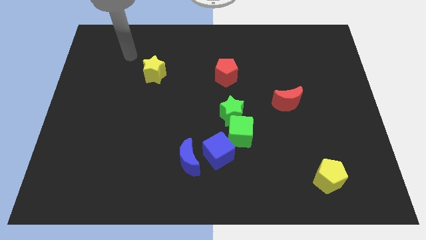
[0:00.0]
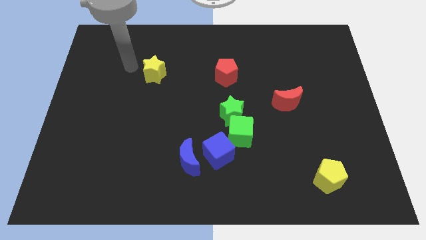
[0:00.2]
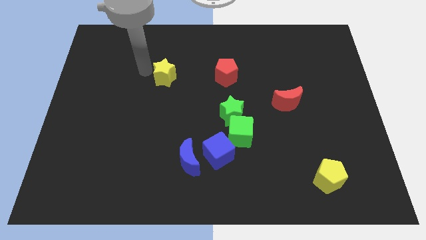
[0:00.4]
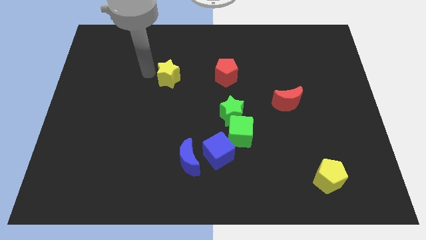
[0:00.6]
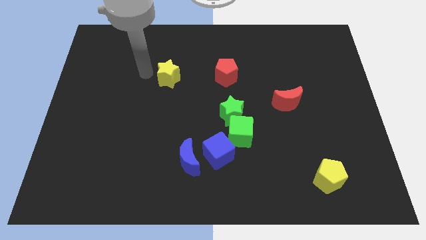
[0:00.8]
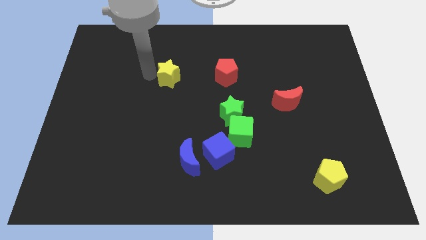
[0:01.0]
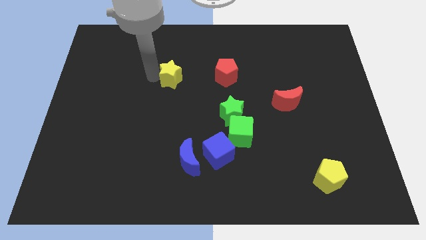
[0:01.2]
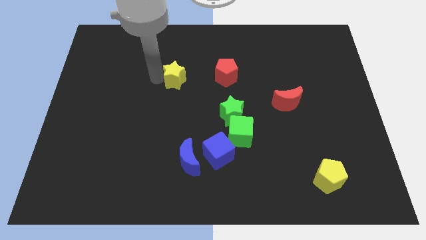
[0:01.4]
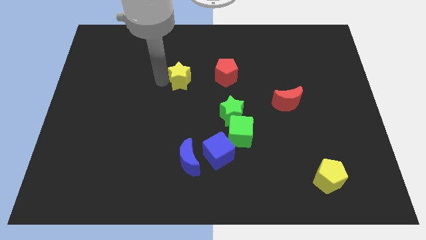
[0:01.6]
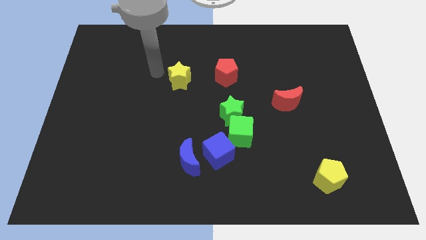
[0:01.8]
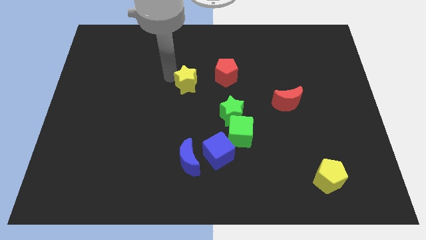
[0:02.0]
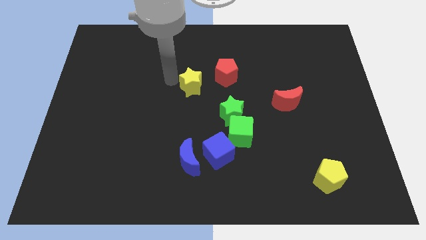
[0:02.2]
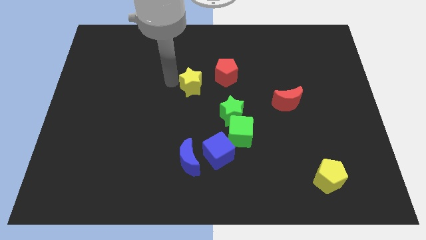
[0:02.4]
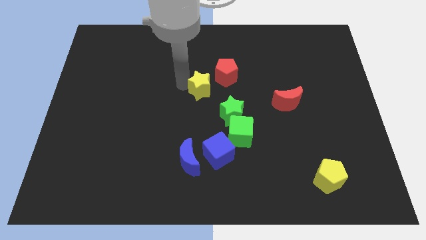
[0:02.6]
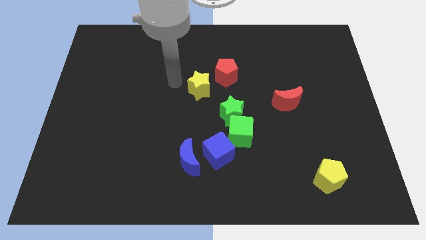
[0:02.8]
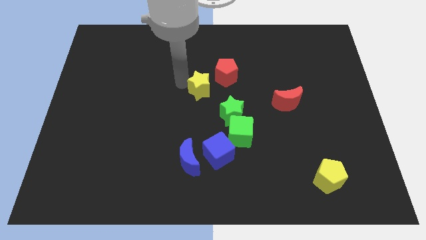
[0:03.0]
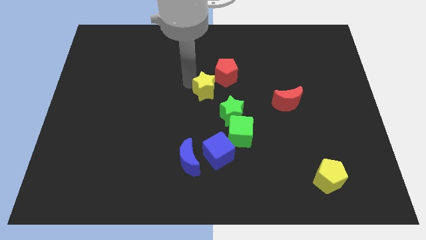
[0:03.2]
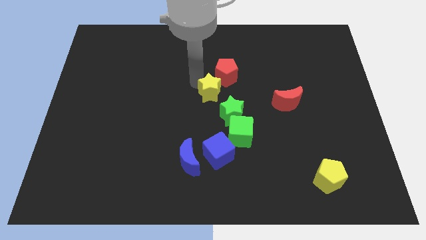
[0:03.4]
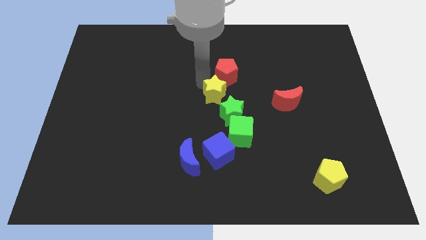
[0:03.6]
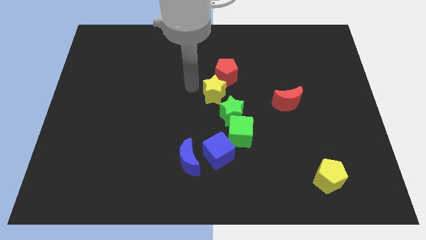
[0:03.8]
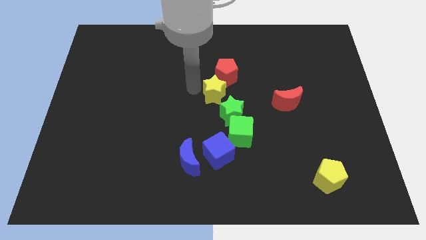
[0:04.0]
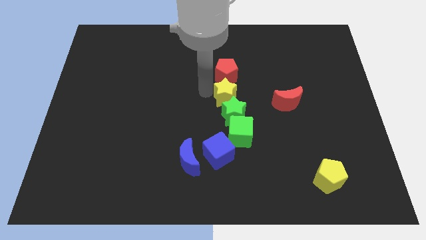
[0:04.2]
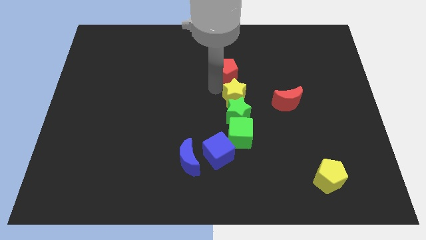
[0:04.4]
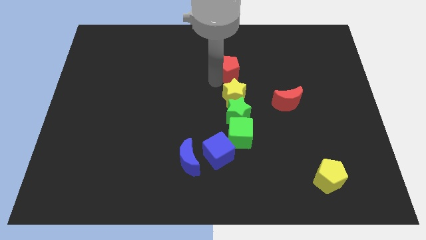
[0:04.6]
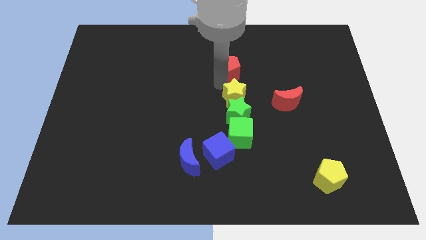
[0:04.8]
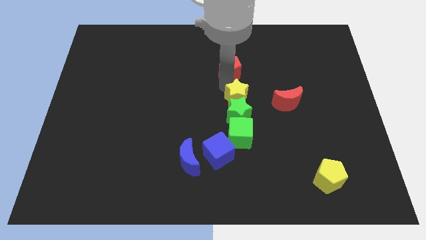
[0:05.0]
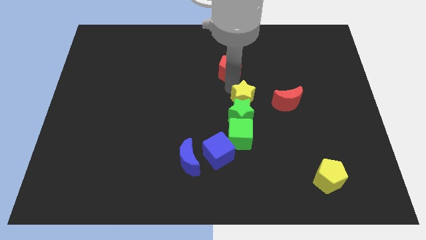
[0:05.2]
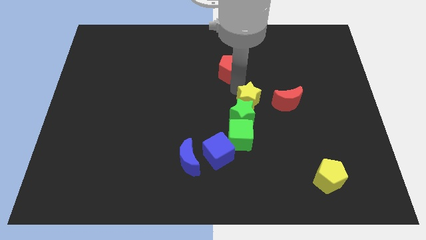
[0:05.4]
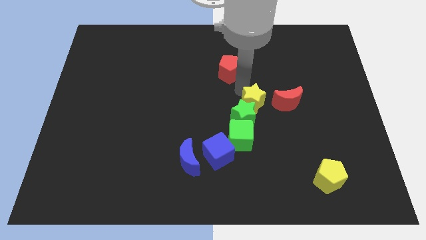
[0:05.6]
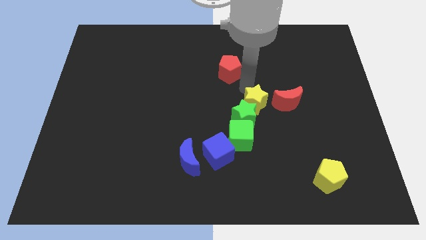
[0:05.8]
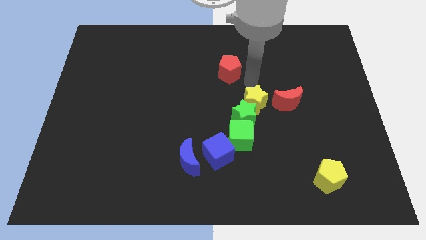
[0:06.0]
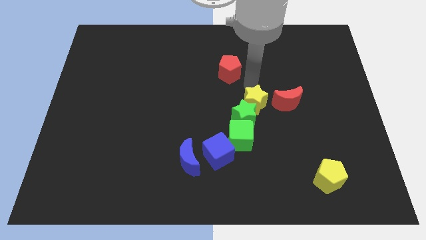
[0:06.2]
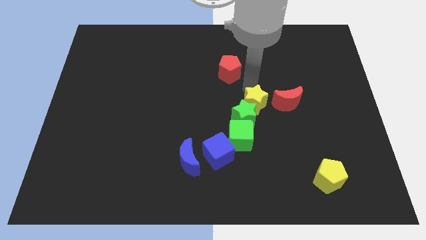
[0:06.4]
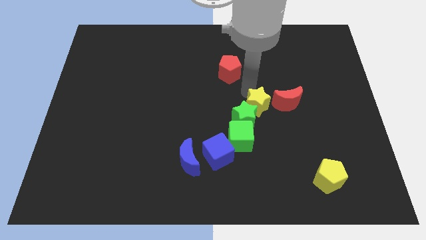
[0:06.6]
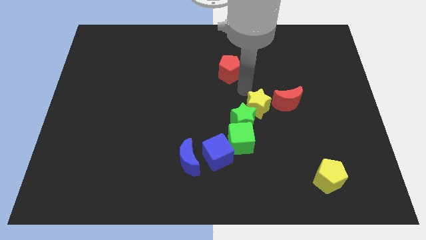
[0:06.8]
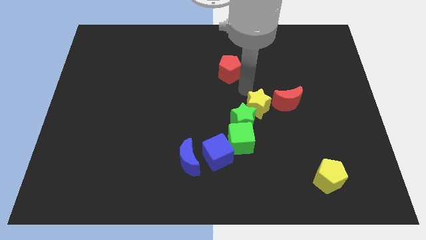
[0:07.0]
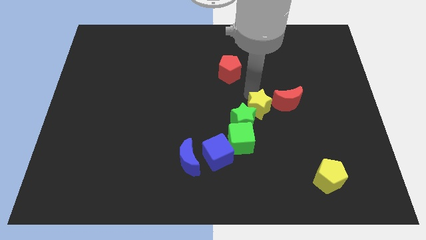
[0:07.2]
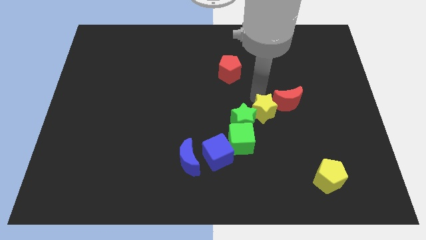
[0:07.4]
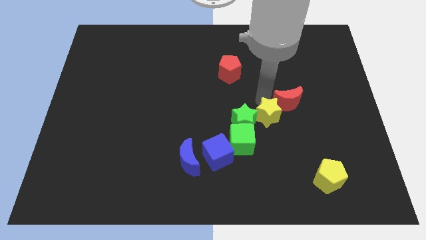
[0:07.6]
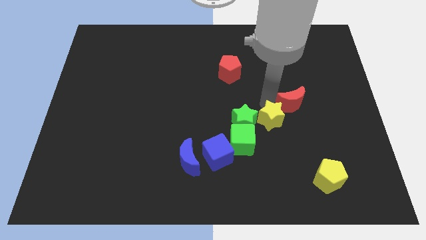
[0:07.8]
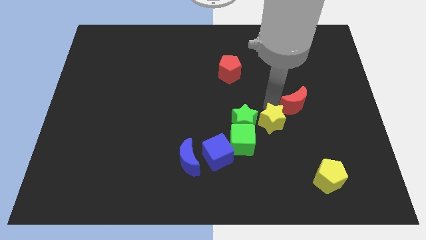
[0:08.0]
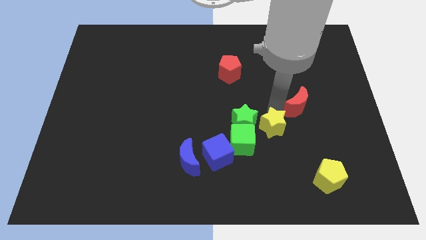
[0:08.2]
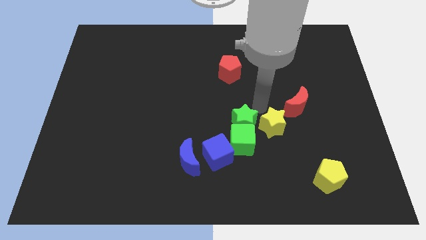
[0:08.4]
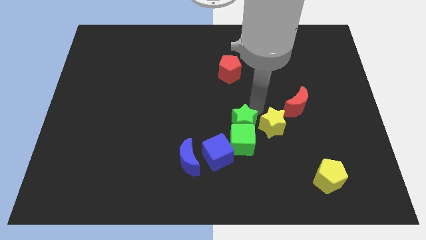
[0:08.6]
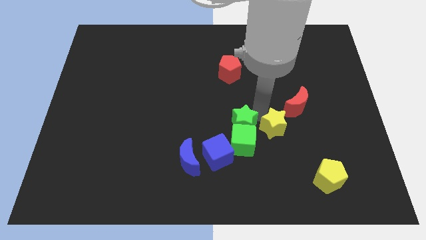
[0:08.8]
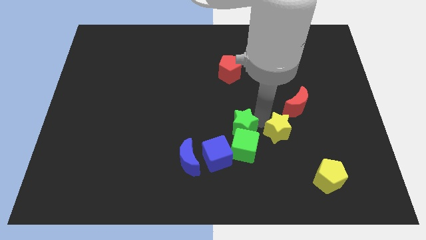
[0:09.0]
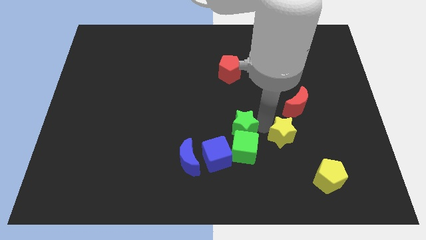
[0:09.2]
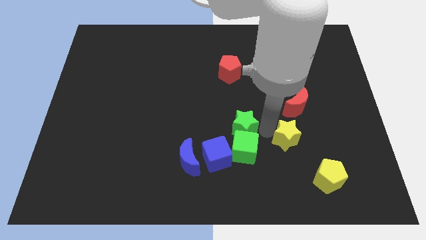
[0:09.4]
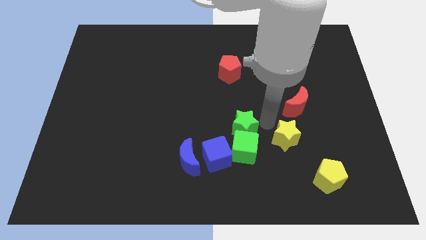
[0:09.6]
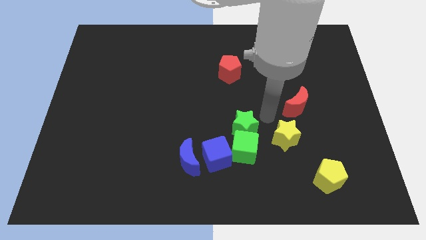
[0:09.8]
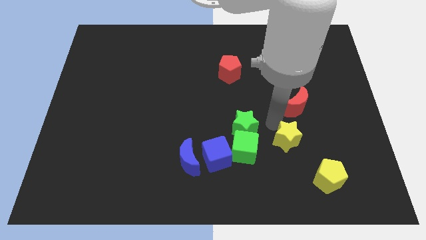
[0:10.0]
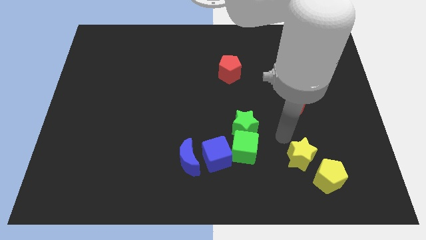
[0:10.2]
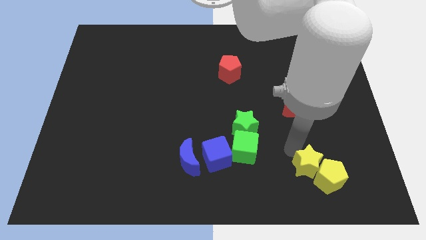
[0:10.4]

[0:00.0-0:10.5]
move the yellow star to the yellow pentagon

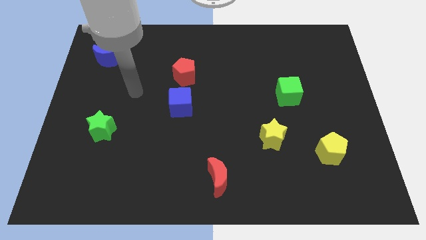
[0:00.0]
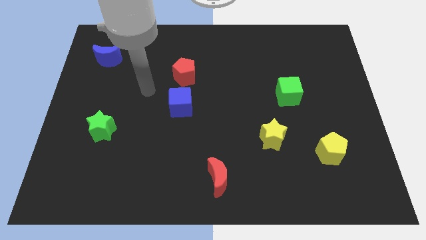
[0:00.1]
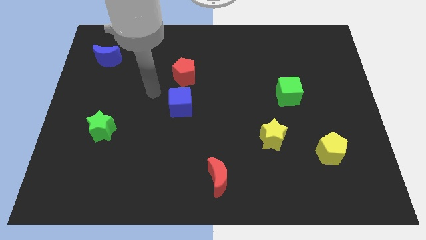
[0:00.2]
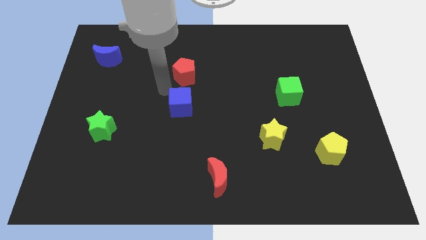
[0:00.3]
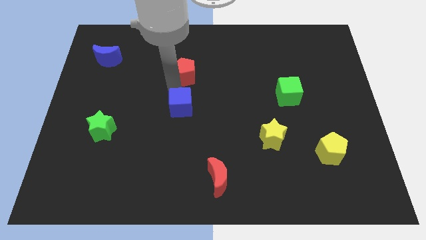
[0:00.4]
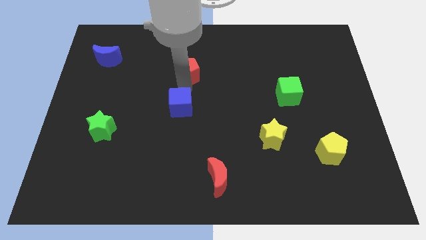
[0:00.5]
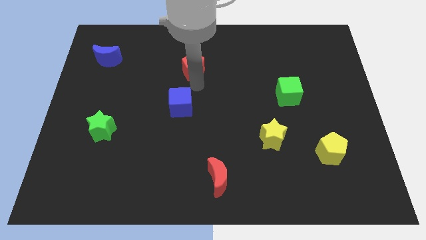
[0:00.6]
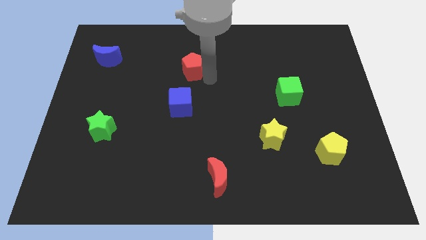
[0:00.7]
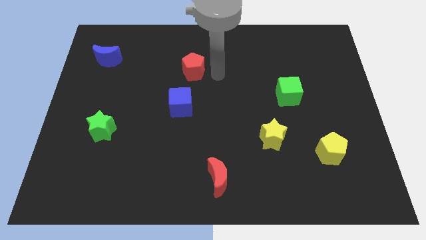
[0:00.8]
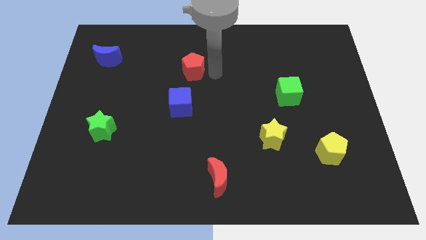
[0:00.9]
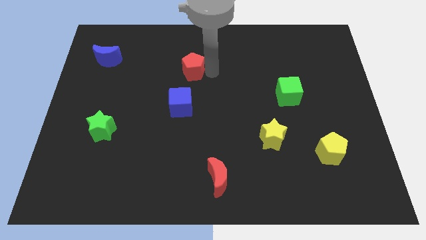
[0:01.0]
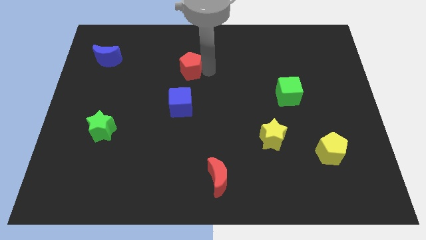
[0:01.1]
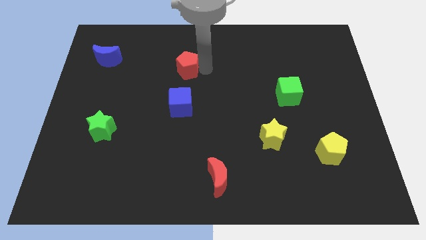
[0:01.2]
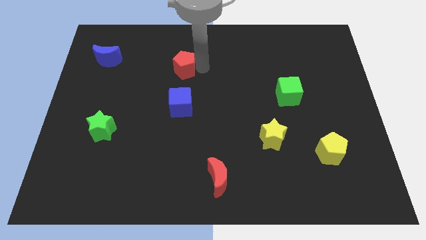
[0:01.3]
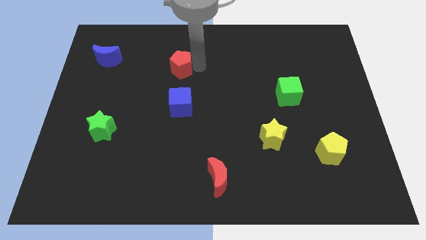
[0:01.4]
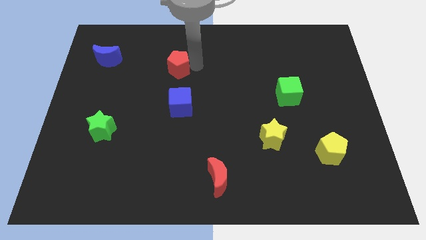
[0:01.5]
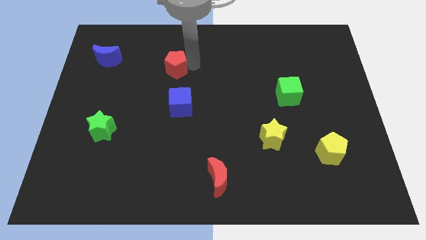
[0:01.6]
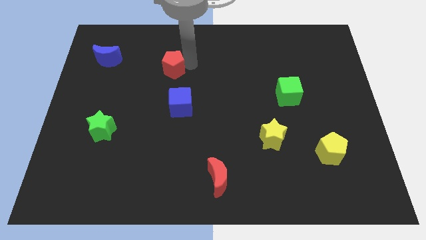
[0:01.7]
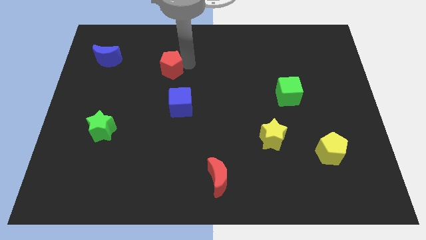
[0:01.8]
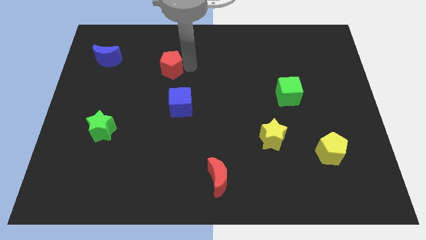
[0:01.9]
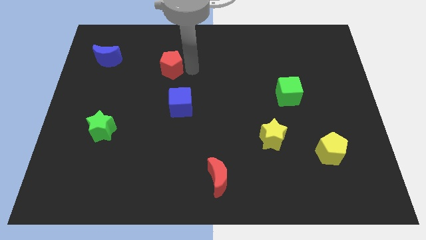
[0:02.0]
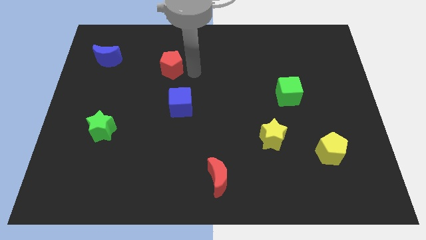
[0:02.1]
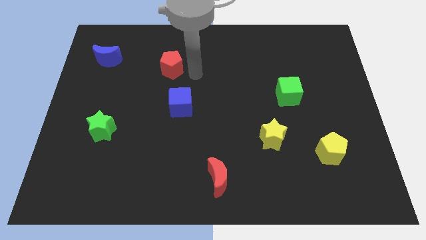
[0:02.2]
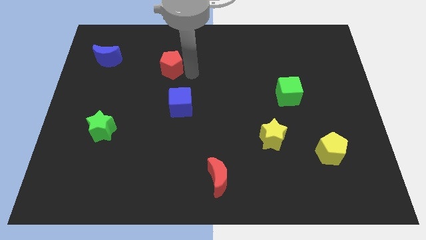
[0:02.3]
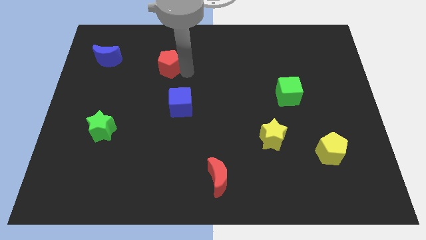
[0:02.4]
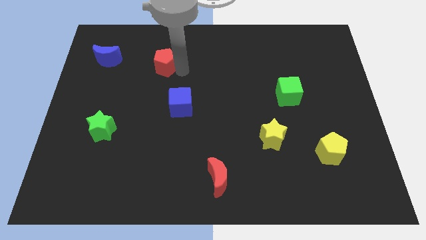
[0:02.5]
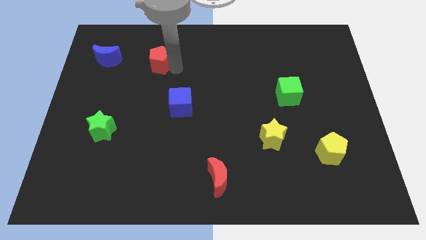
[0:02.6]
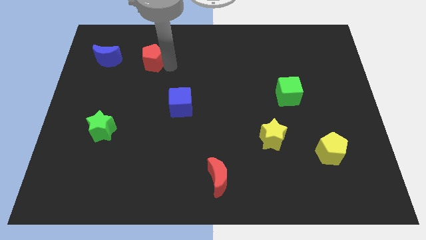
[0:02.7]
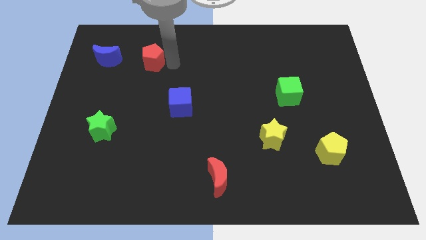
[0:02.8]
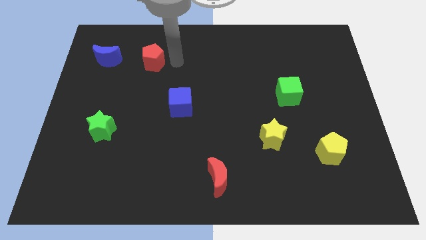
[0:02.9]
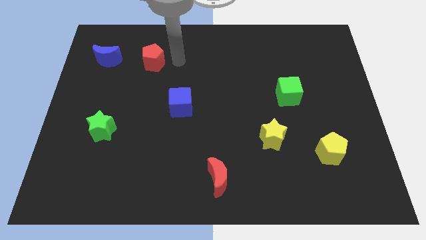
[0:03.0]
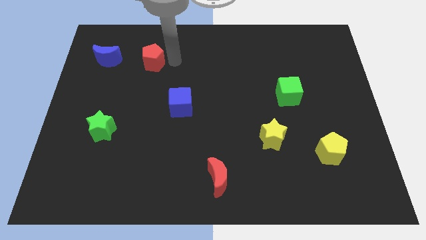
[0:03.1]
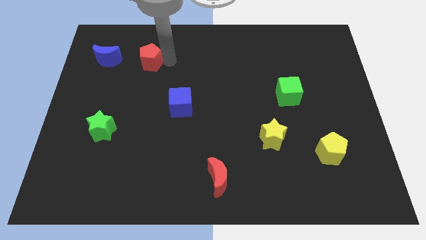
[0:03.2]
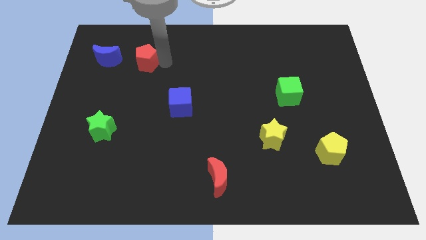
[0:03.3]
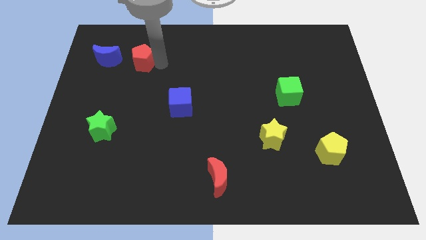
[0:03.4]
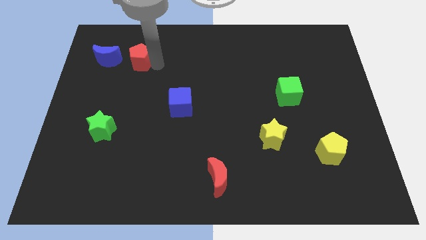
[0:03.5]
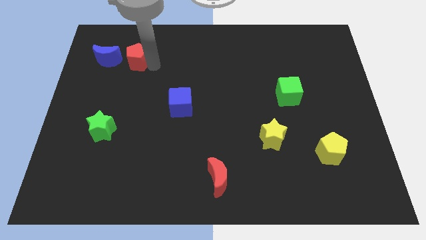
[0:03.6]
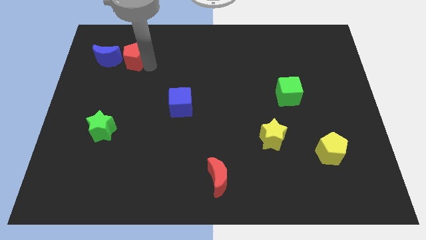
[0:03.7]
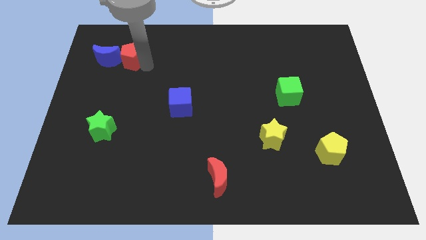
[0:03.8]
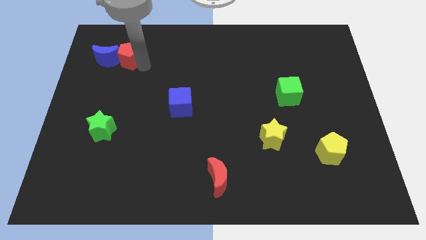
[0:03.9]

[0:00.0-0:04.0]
push the red pentagon close to the blue moon
